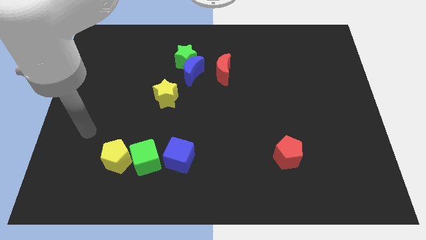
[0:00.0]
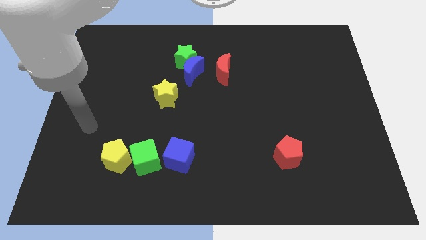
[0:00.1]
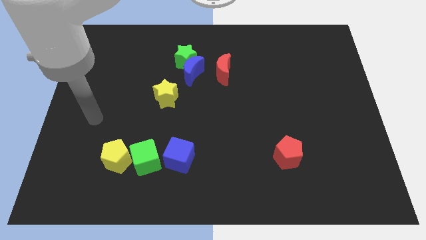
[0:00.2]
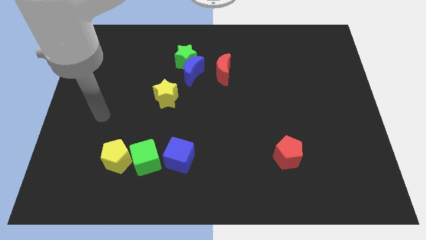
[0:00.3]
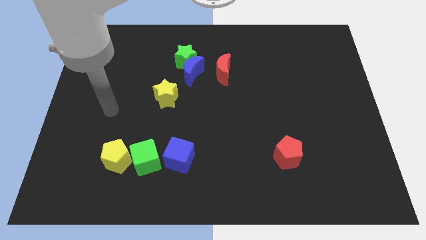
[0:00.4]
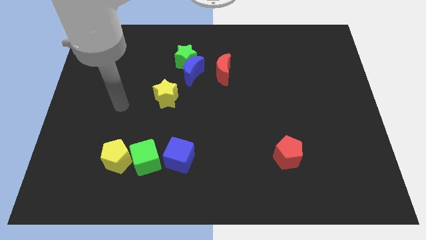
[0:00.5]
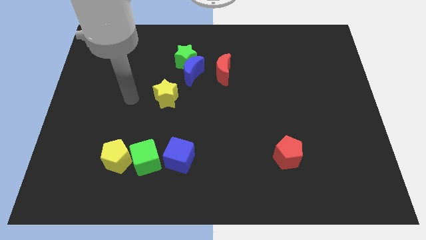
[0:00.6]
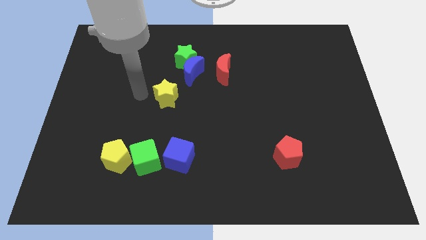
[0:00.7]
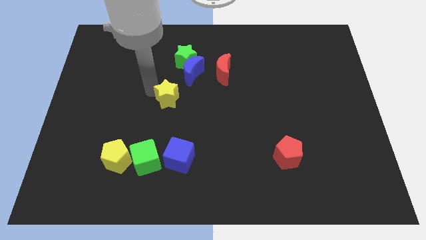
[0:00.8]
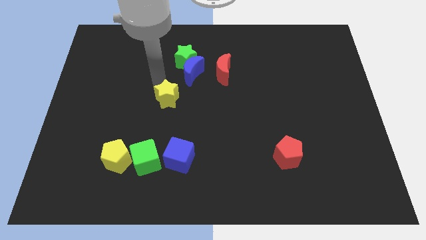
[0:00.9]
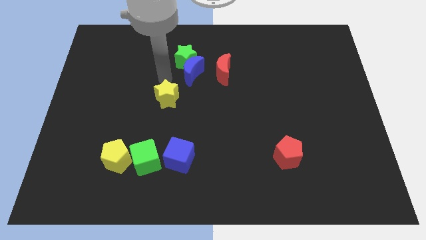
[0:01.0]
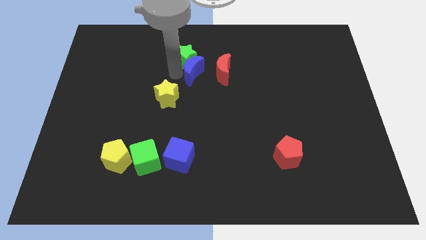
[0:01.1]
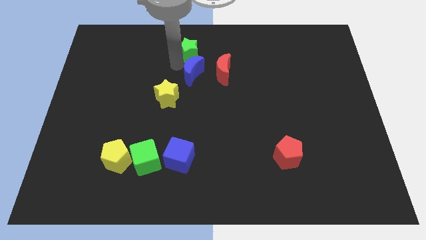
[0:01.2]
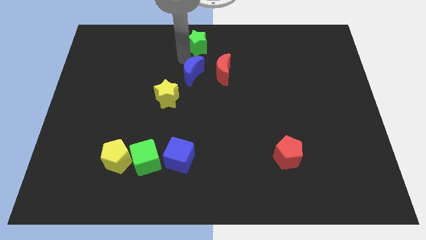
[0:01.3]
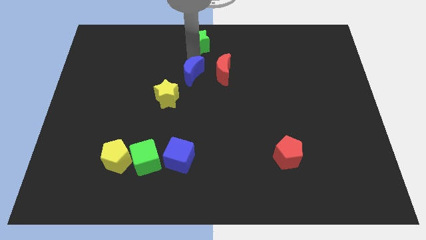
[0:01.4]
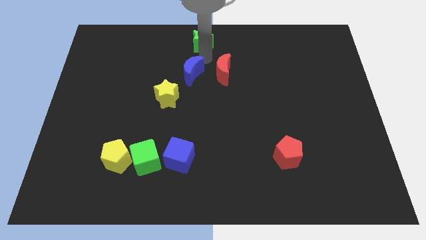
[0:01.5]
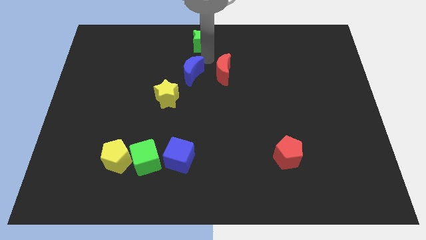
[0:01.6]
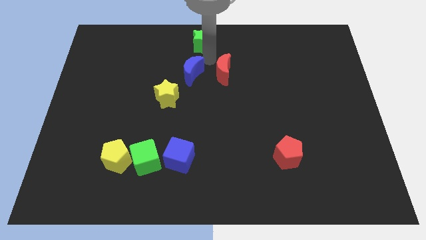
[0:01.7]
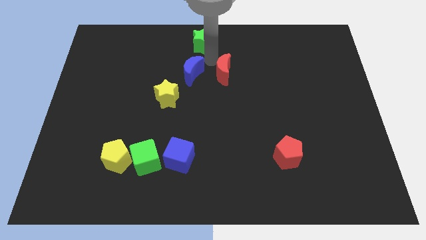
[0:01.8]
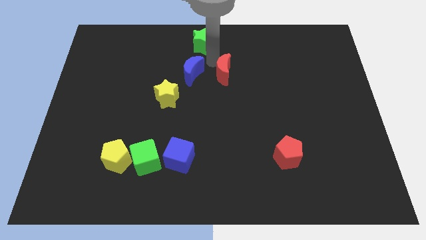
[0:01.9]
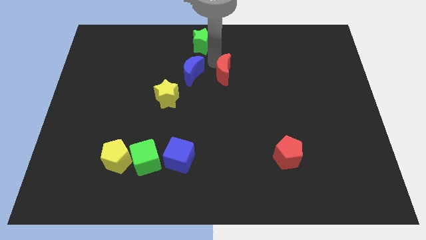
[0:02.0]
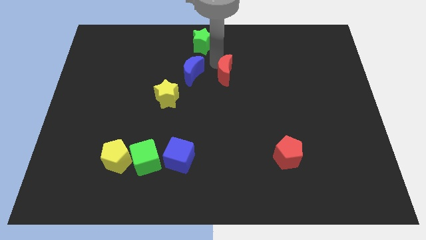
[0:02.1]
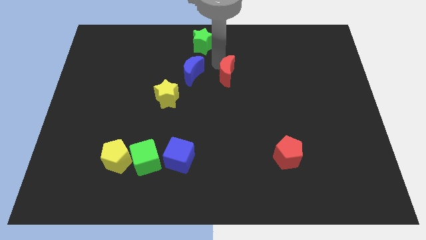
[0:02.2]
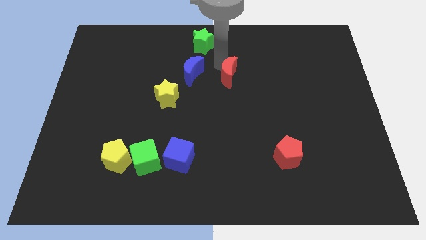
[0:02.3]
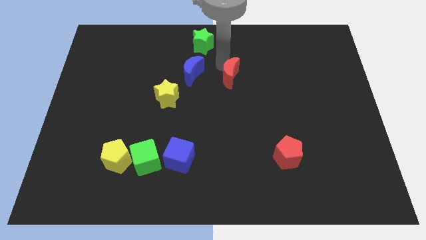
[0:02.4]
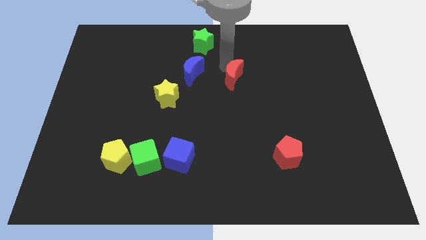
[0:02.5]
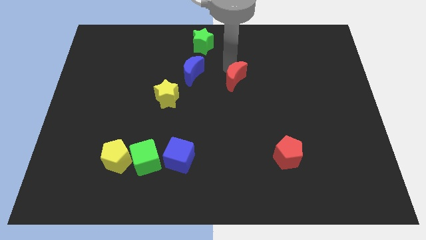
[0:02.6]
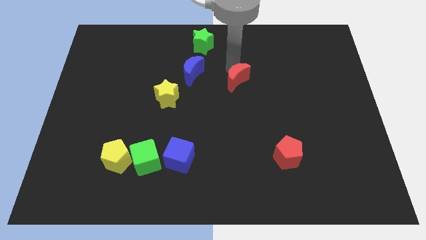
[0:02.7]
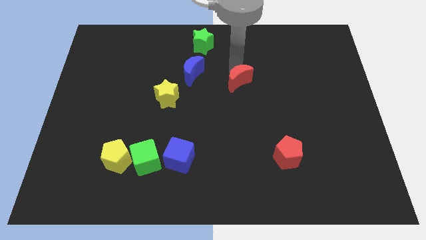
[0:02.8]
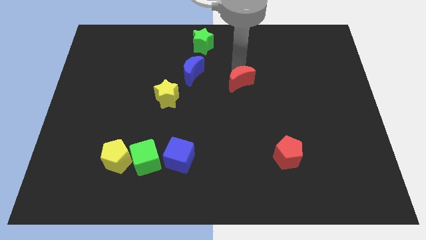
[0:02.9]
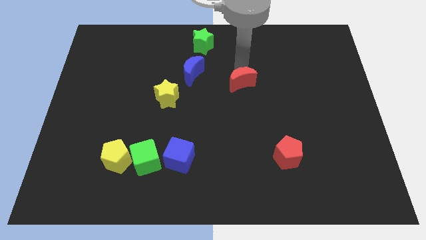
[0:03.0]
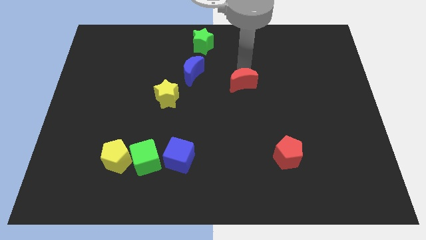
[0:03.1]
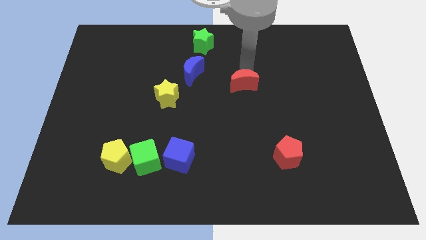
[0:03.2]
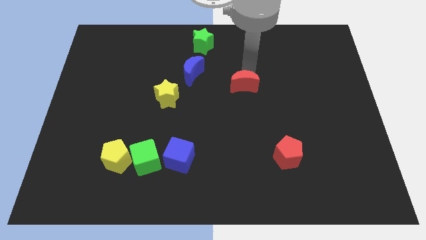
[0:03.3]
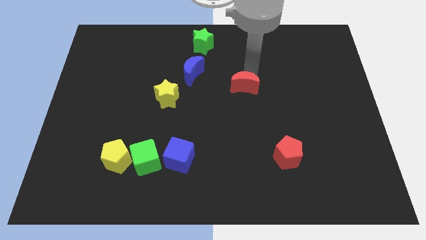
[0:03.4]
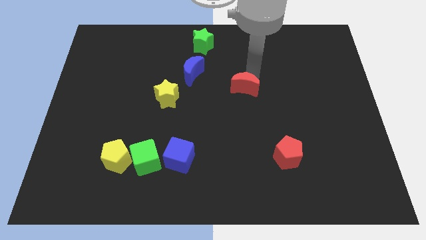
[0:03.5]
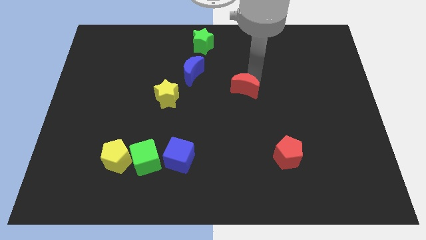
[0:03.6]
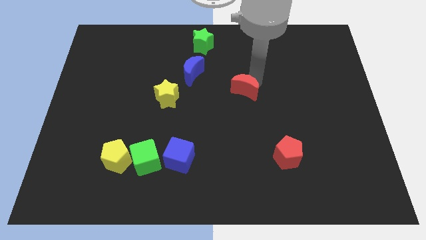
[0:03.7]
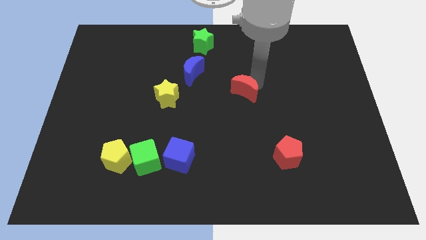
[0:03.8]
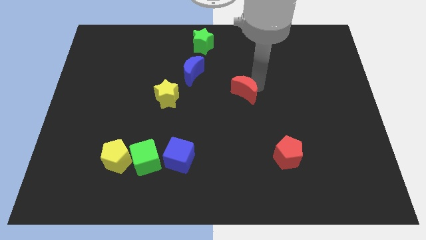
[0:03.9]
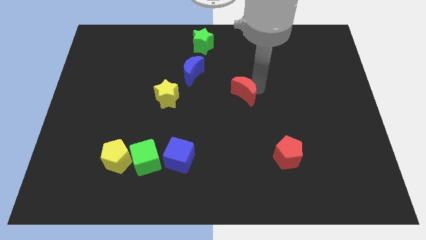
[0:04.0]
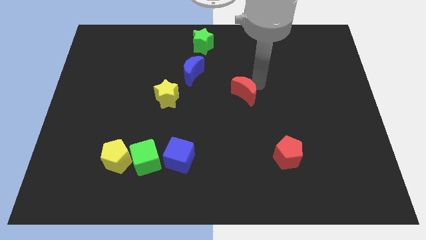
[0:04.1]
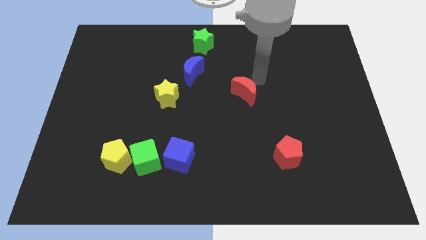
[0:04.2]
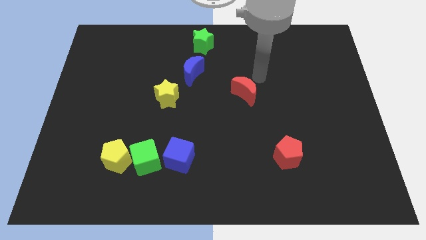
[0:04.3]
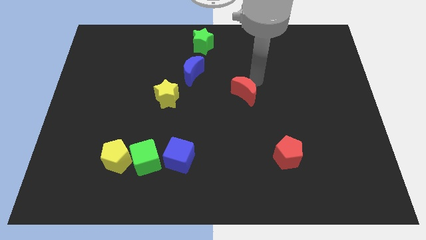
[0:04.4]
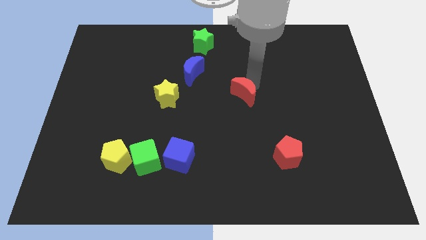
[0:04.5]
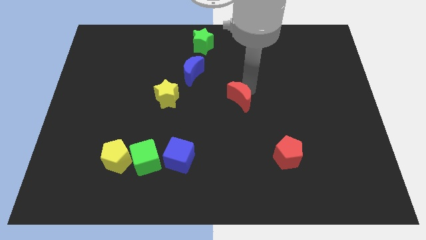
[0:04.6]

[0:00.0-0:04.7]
slide the red moon a little bit downwards

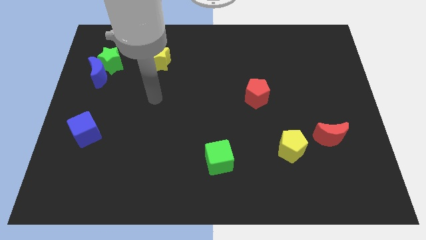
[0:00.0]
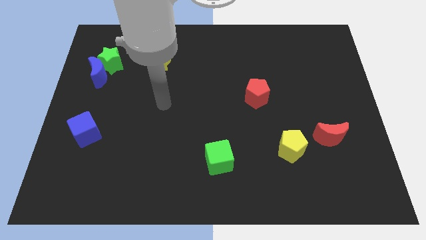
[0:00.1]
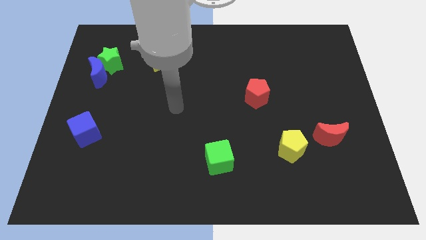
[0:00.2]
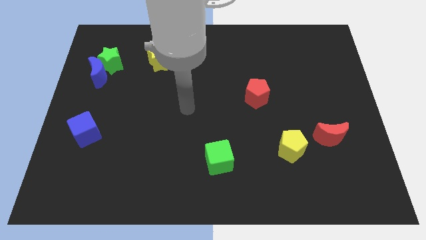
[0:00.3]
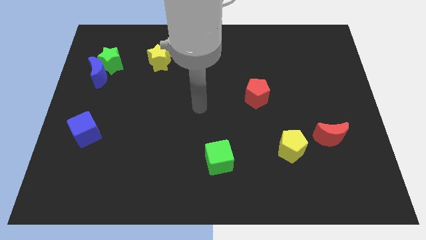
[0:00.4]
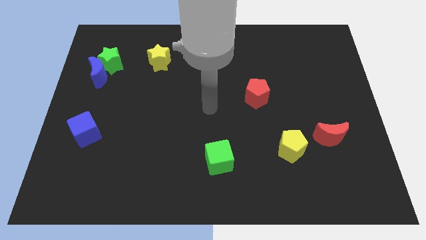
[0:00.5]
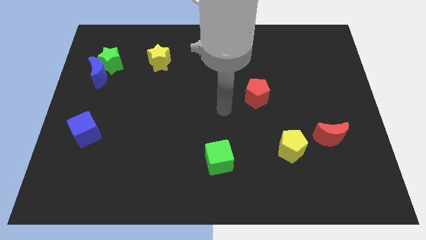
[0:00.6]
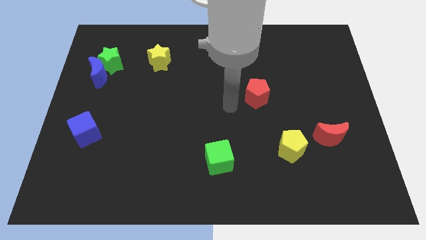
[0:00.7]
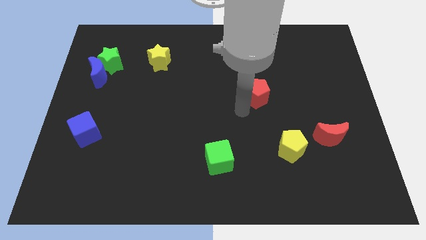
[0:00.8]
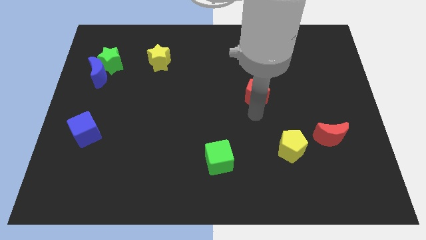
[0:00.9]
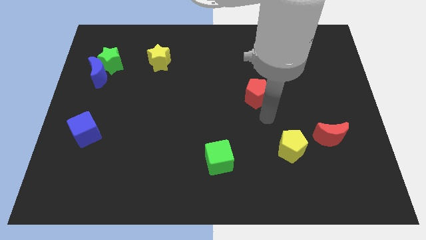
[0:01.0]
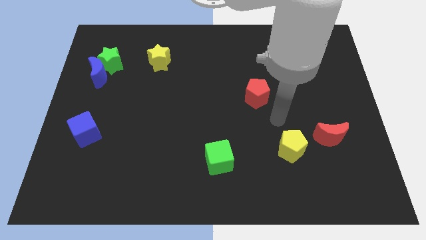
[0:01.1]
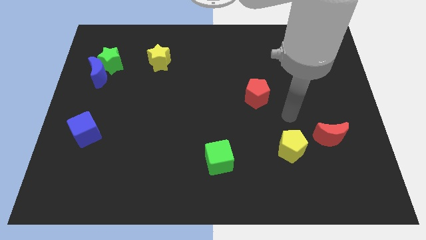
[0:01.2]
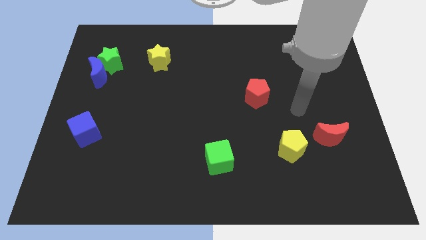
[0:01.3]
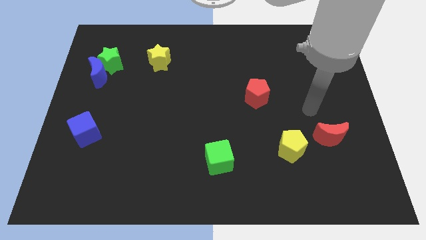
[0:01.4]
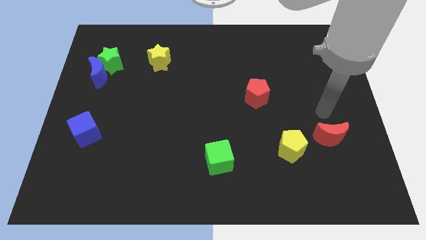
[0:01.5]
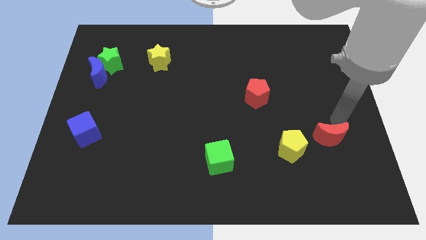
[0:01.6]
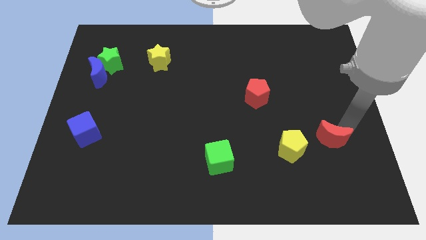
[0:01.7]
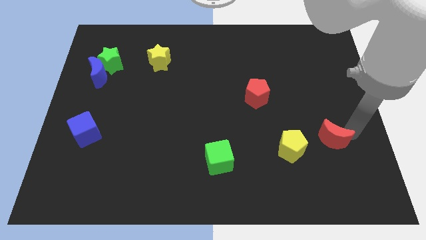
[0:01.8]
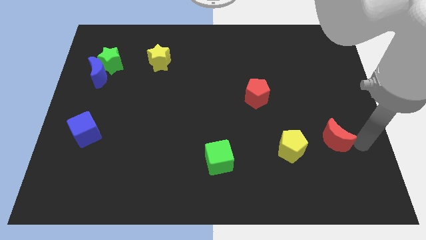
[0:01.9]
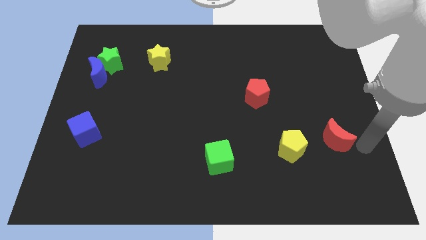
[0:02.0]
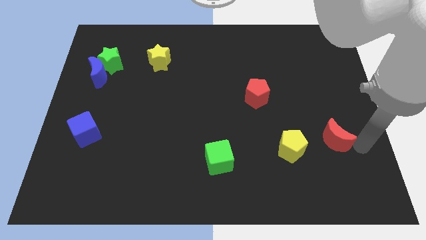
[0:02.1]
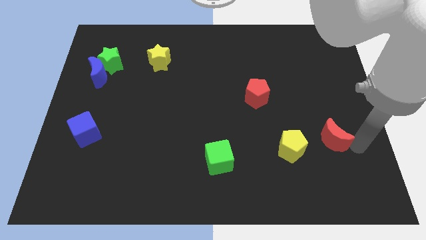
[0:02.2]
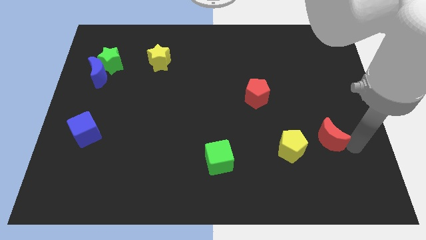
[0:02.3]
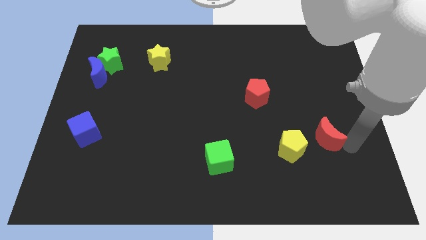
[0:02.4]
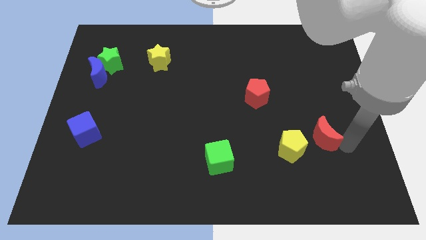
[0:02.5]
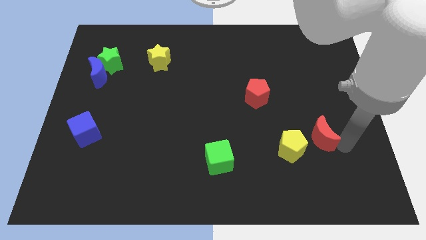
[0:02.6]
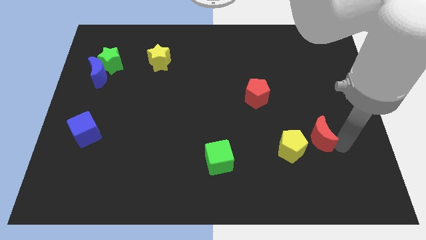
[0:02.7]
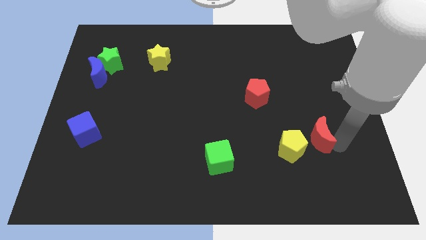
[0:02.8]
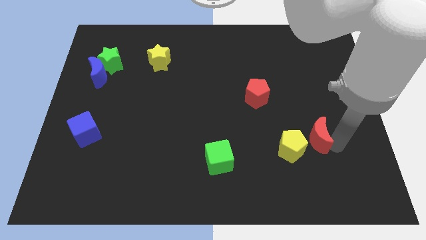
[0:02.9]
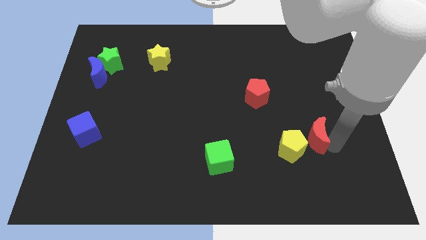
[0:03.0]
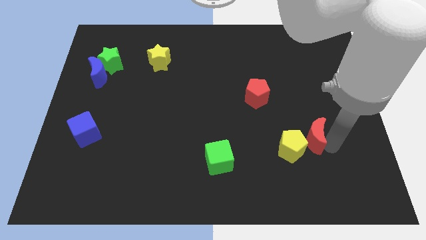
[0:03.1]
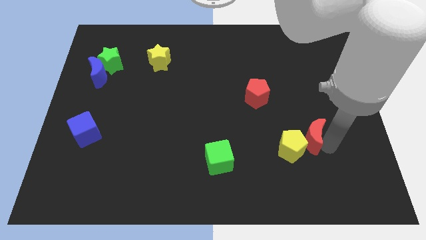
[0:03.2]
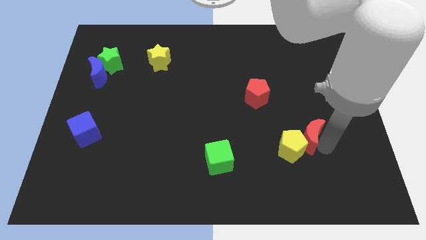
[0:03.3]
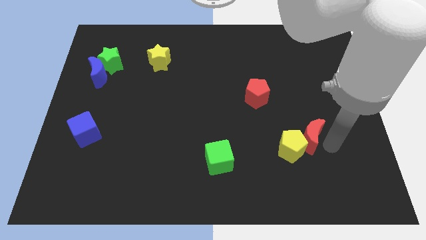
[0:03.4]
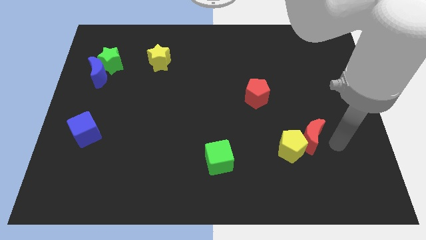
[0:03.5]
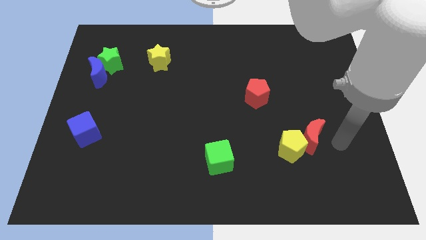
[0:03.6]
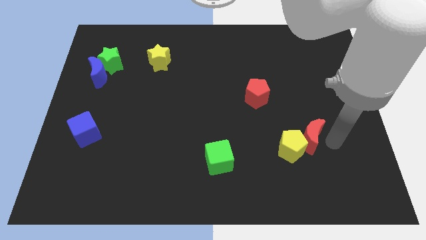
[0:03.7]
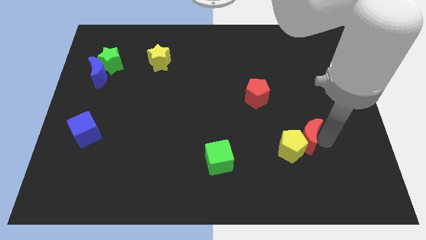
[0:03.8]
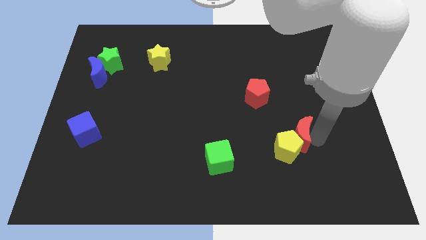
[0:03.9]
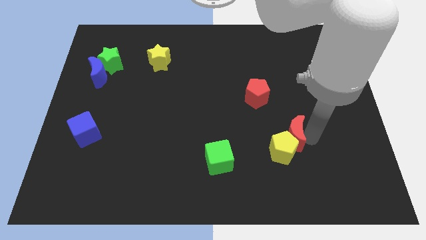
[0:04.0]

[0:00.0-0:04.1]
move the red moon left somewhat
